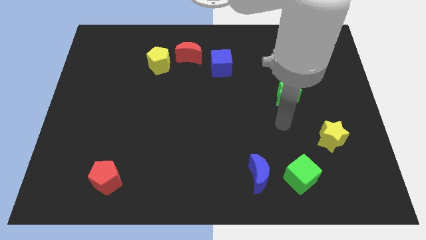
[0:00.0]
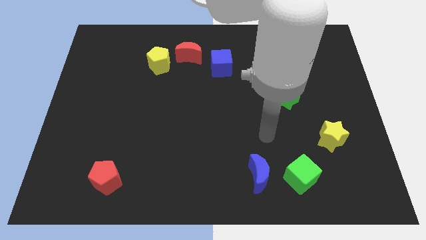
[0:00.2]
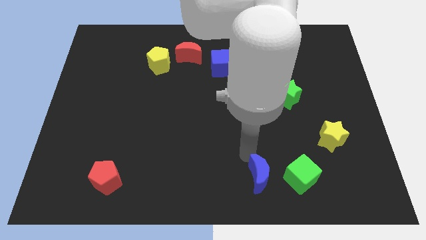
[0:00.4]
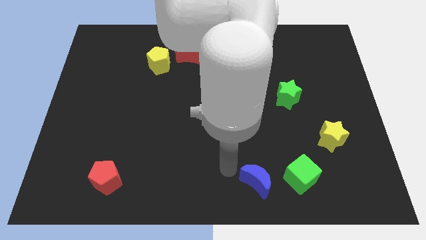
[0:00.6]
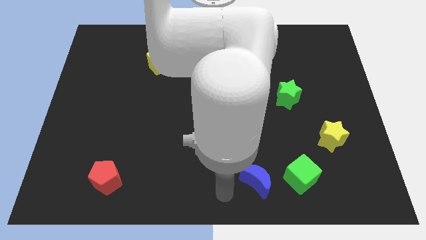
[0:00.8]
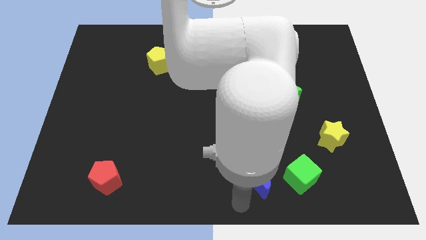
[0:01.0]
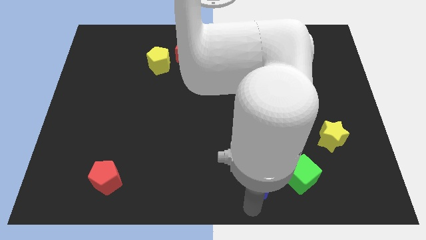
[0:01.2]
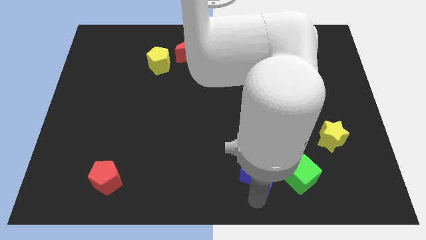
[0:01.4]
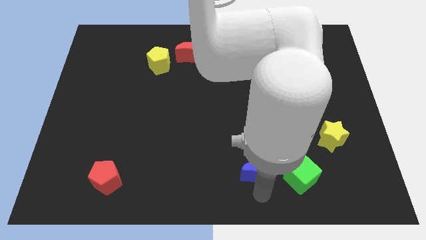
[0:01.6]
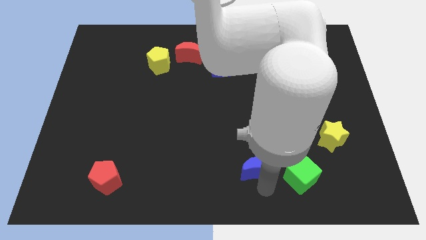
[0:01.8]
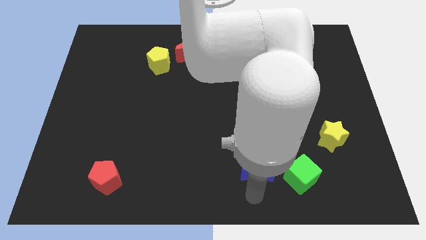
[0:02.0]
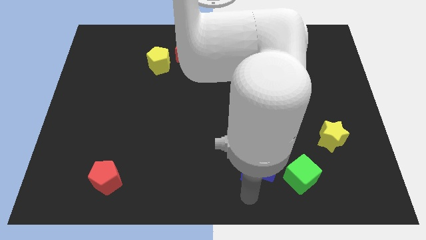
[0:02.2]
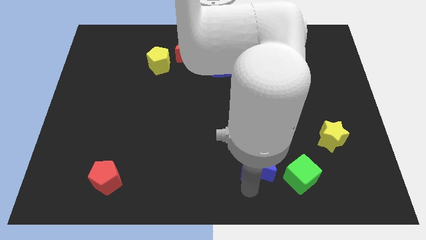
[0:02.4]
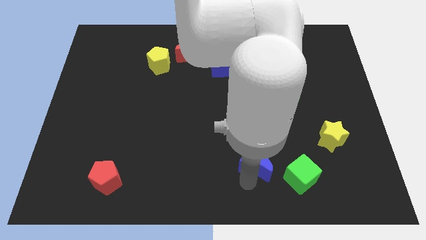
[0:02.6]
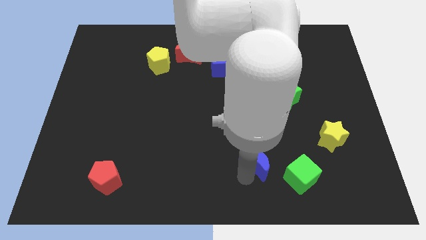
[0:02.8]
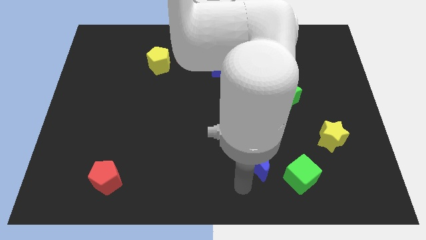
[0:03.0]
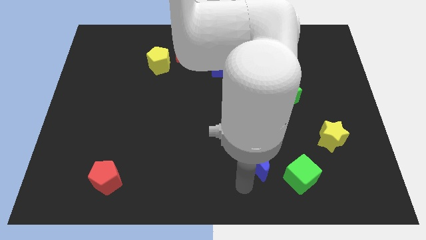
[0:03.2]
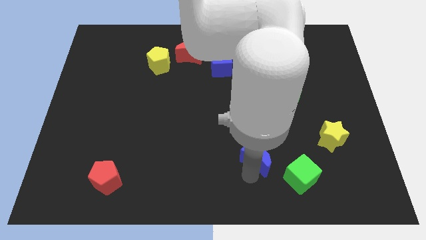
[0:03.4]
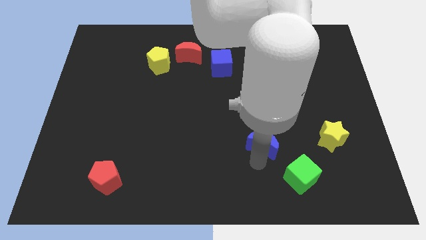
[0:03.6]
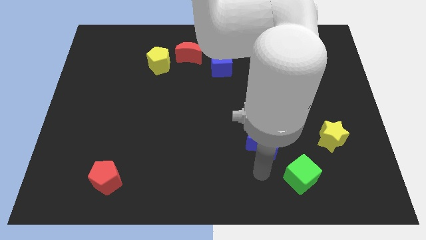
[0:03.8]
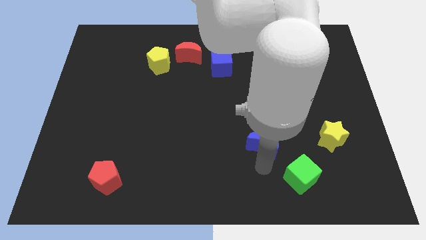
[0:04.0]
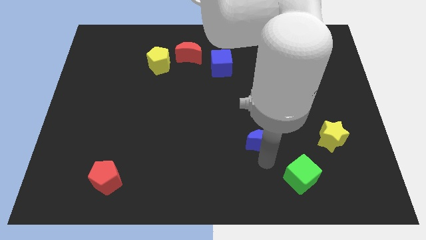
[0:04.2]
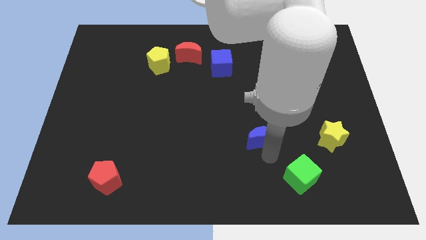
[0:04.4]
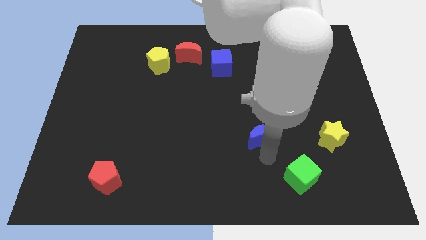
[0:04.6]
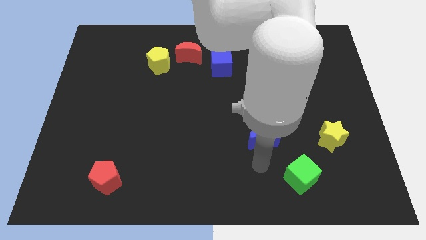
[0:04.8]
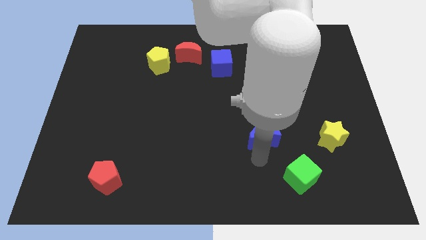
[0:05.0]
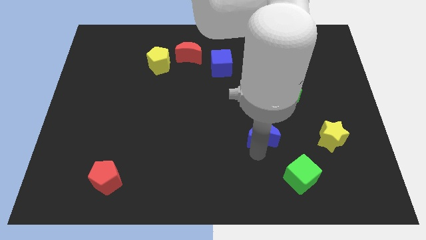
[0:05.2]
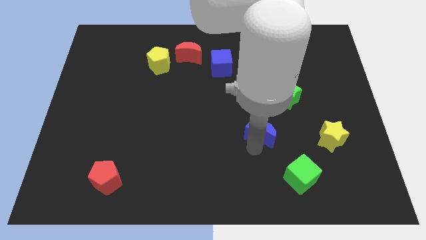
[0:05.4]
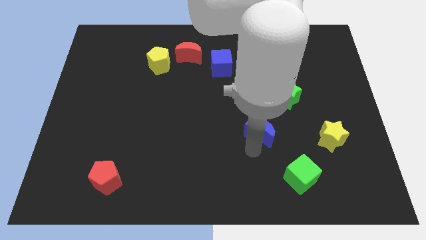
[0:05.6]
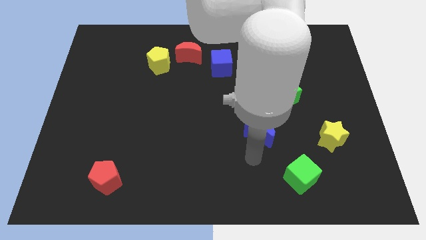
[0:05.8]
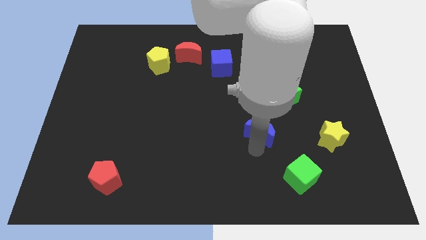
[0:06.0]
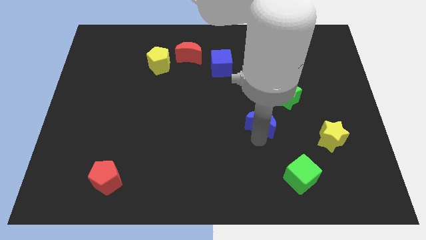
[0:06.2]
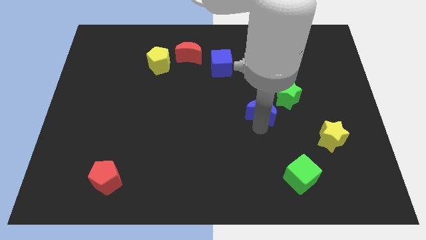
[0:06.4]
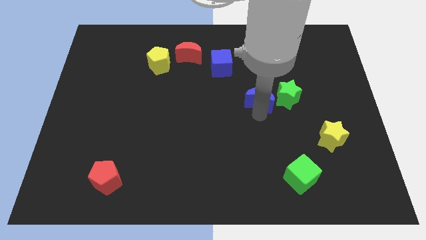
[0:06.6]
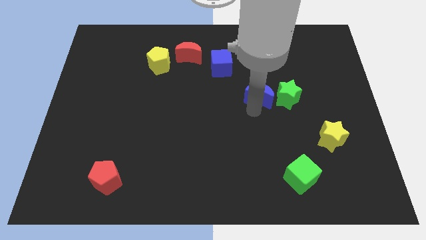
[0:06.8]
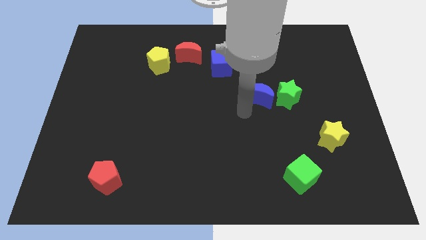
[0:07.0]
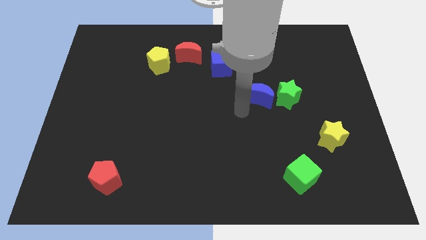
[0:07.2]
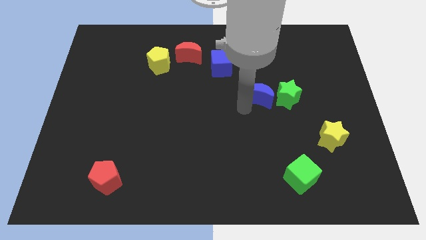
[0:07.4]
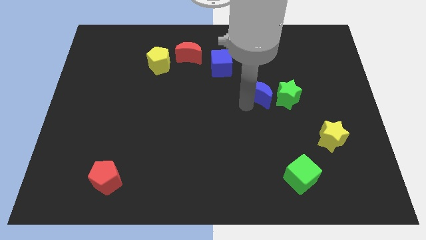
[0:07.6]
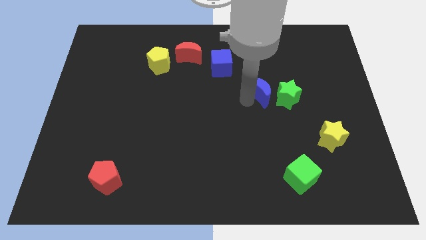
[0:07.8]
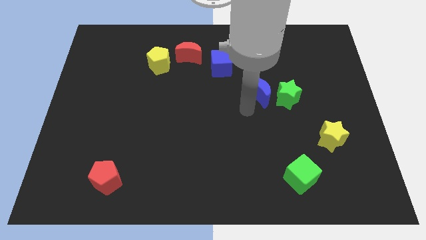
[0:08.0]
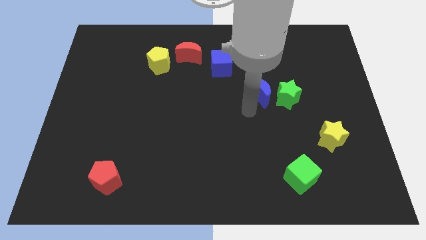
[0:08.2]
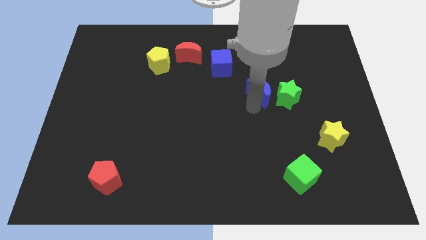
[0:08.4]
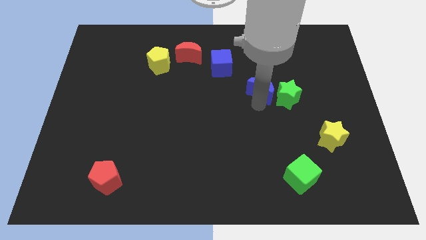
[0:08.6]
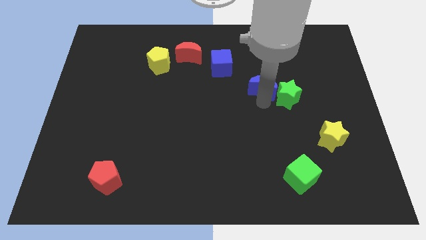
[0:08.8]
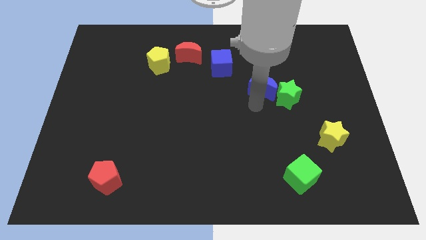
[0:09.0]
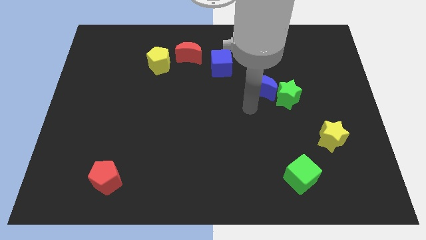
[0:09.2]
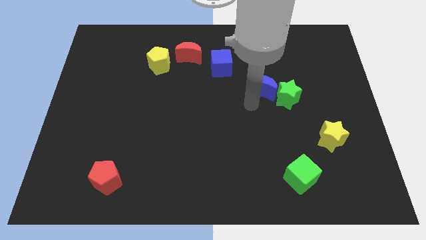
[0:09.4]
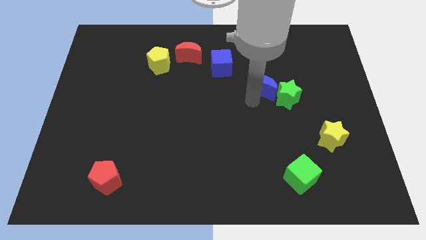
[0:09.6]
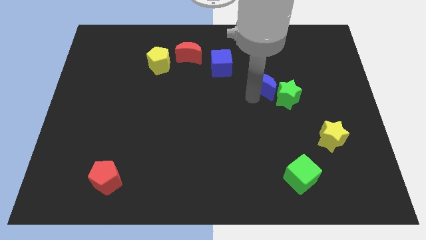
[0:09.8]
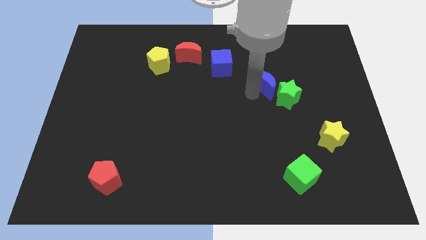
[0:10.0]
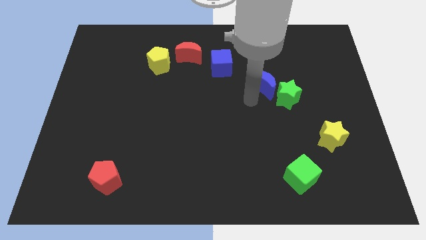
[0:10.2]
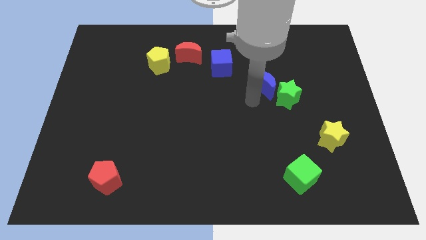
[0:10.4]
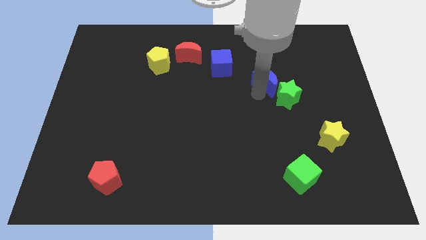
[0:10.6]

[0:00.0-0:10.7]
push the blue moon above the green star
